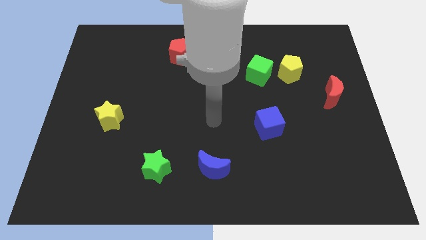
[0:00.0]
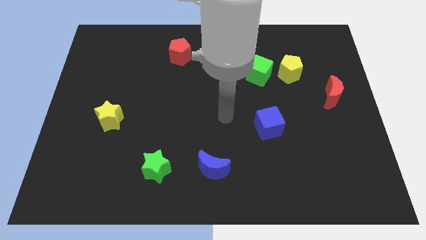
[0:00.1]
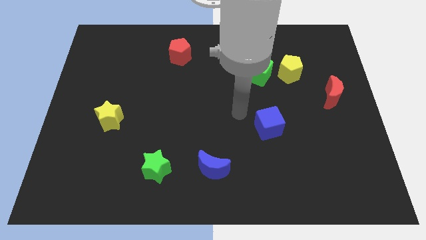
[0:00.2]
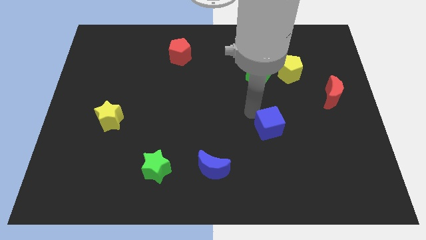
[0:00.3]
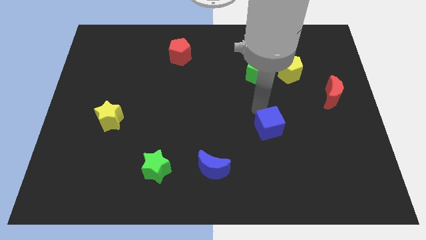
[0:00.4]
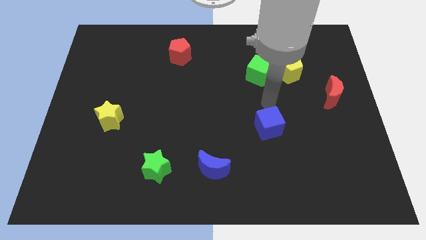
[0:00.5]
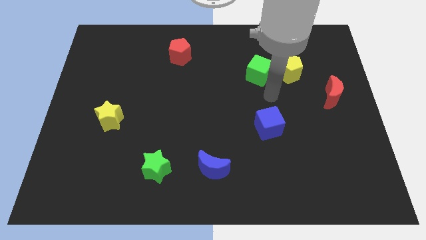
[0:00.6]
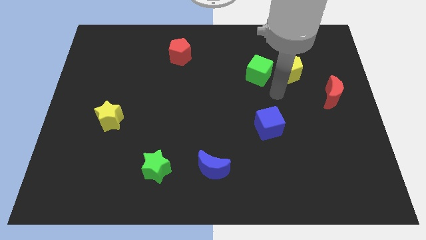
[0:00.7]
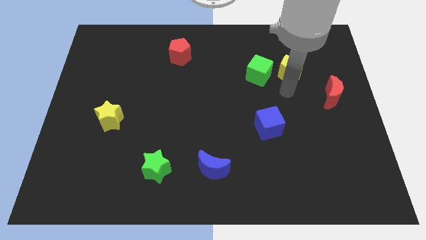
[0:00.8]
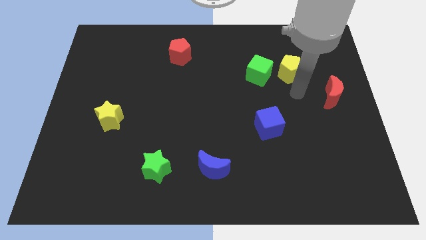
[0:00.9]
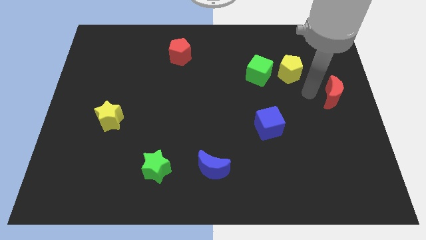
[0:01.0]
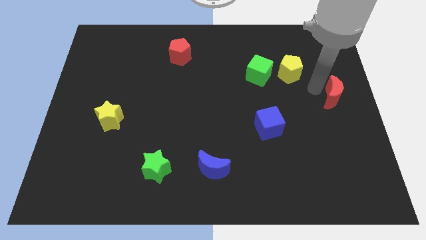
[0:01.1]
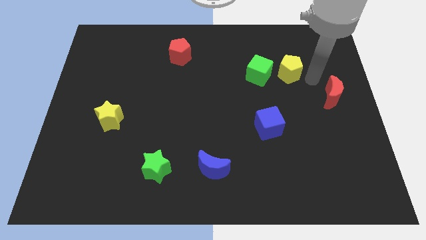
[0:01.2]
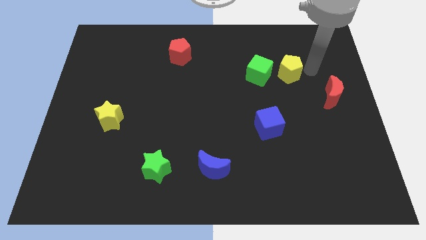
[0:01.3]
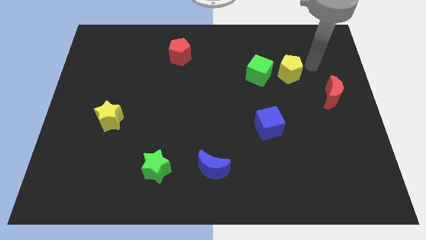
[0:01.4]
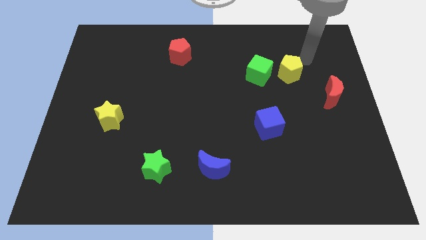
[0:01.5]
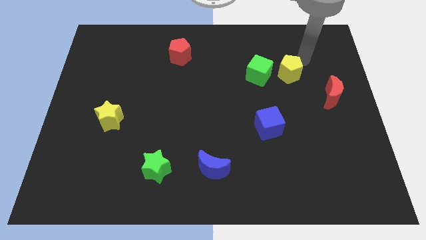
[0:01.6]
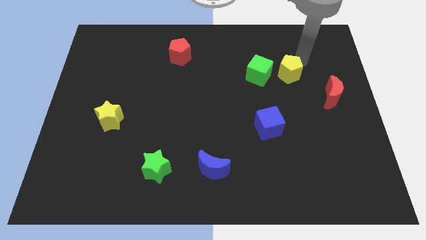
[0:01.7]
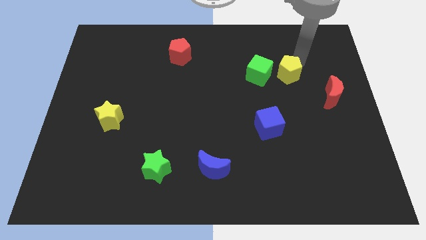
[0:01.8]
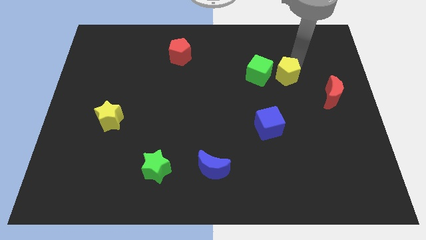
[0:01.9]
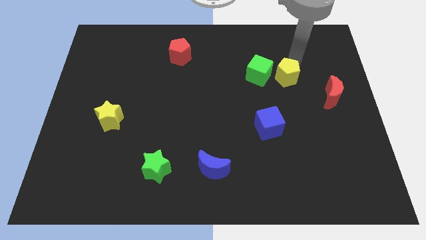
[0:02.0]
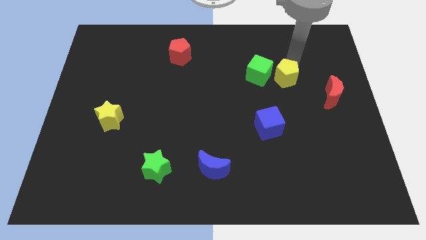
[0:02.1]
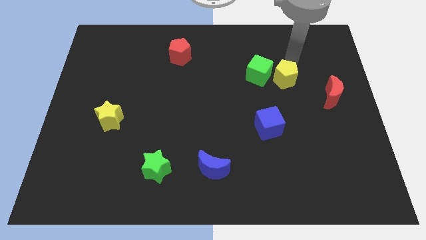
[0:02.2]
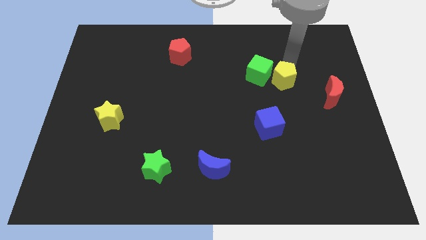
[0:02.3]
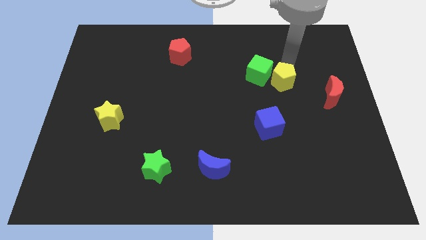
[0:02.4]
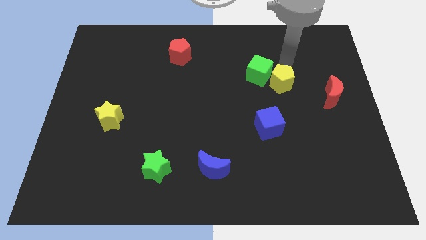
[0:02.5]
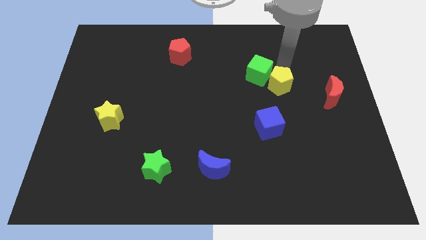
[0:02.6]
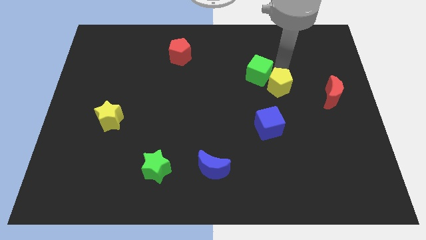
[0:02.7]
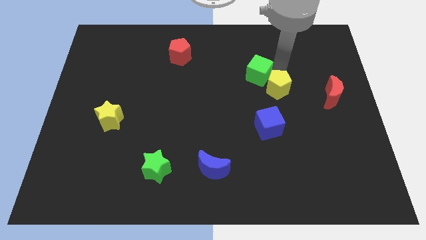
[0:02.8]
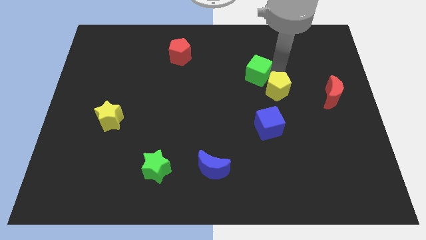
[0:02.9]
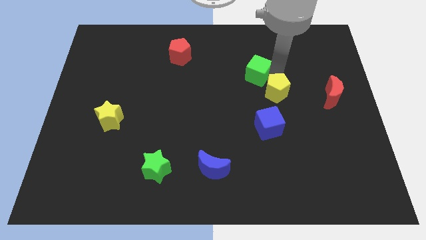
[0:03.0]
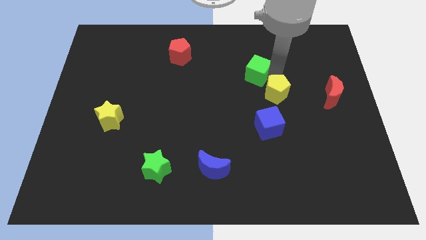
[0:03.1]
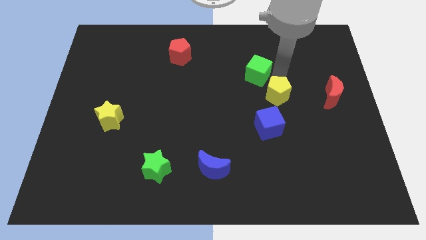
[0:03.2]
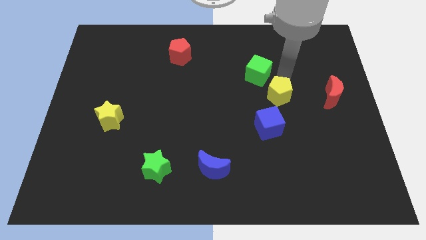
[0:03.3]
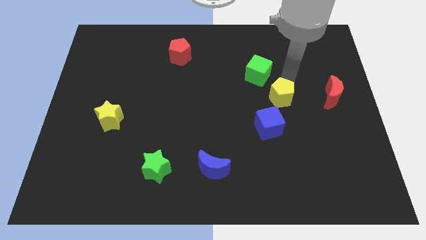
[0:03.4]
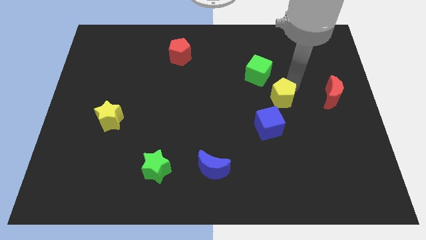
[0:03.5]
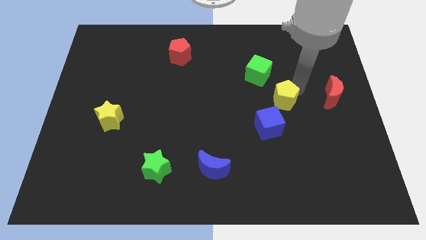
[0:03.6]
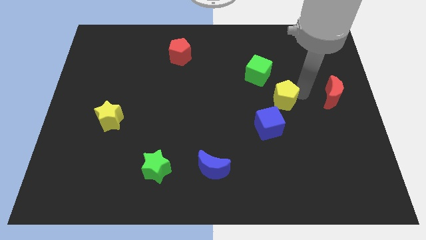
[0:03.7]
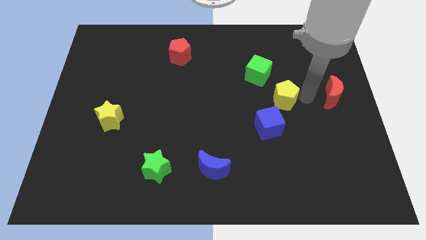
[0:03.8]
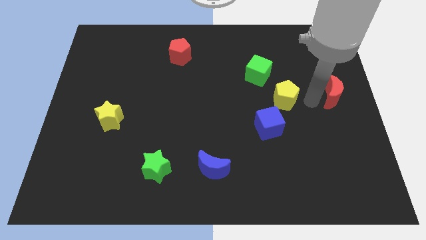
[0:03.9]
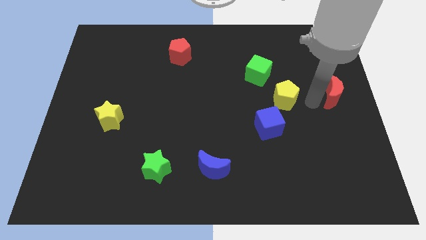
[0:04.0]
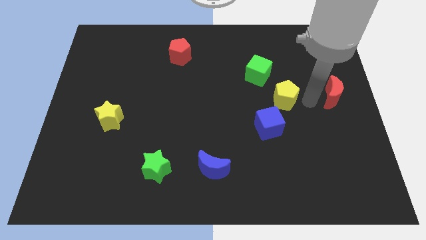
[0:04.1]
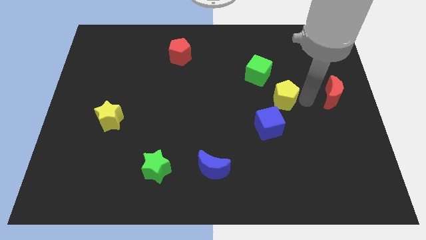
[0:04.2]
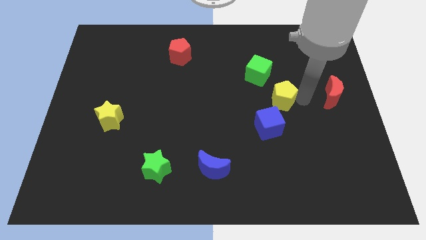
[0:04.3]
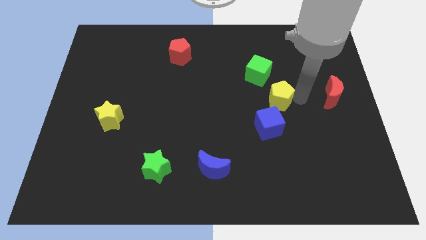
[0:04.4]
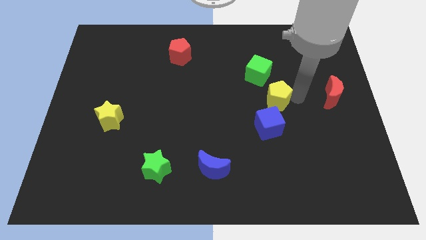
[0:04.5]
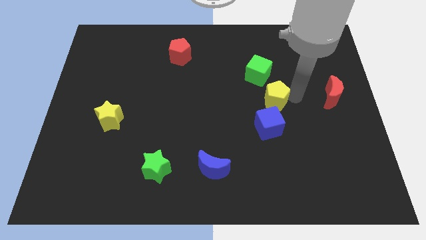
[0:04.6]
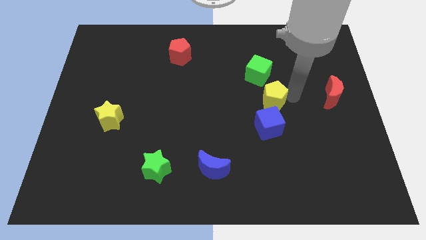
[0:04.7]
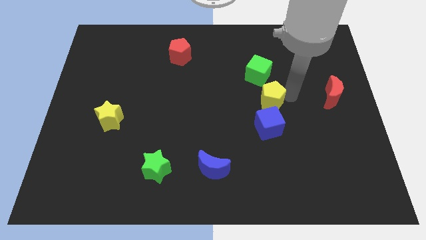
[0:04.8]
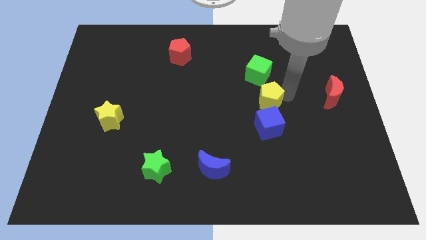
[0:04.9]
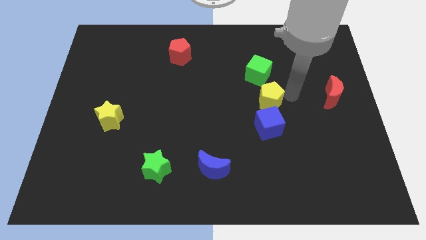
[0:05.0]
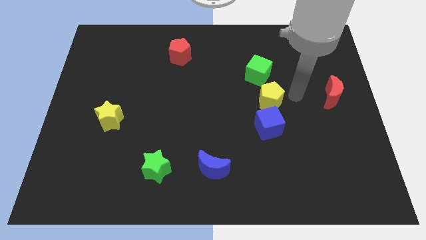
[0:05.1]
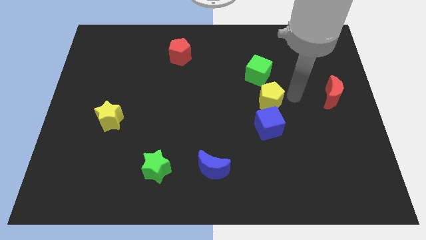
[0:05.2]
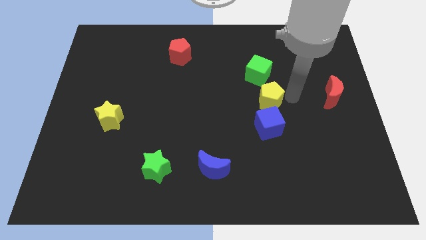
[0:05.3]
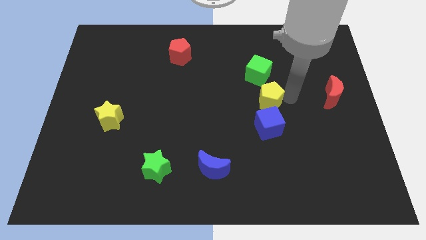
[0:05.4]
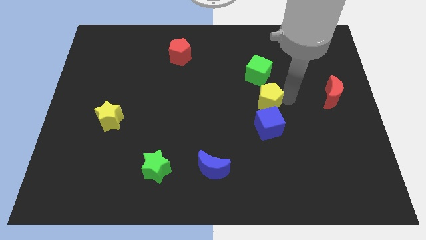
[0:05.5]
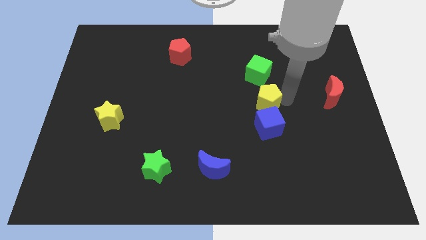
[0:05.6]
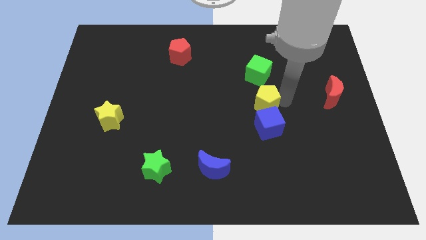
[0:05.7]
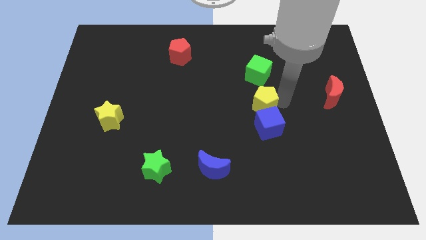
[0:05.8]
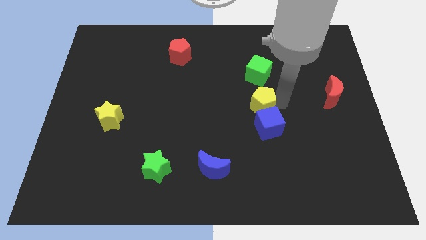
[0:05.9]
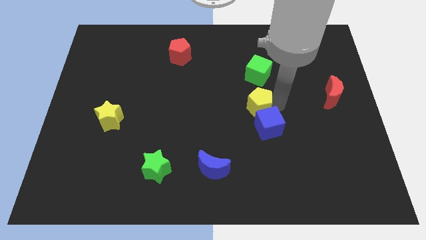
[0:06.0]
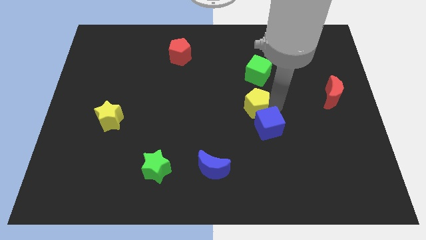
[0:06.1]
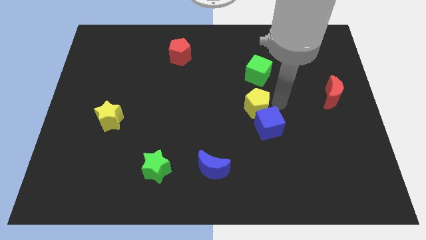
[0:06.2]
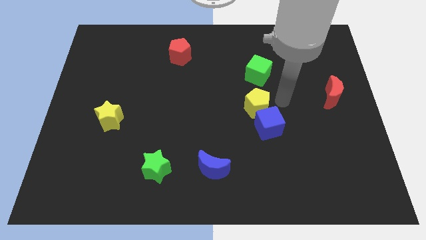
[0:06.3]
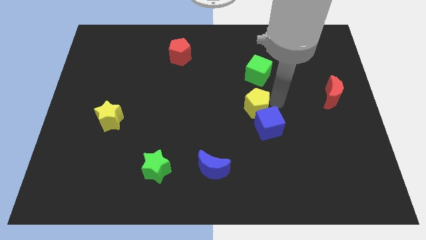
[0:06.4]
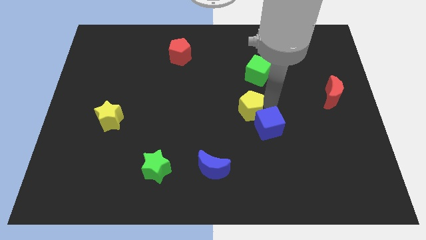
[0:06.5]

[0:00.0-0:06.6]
put the yellow pentagon just left of the blue cube
